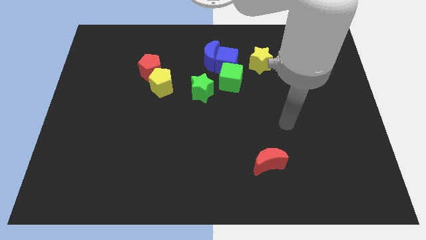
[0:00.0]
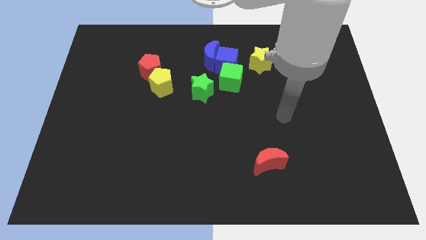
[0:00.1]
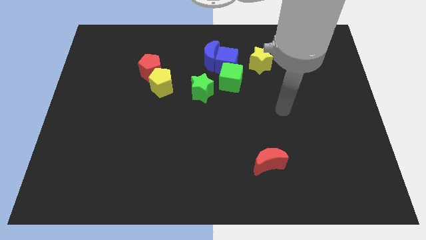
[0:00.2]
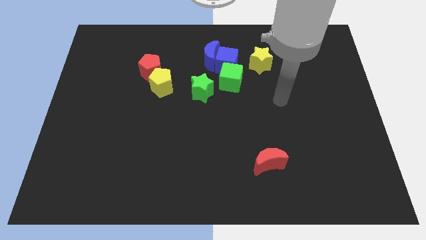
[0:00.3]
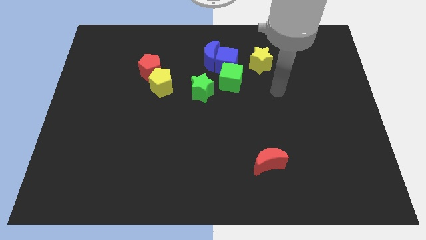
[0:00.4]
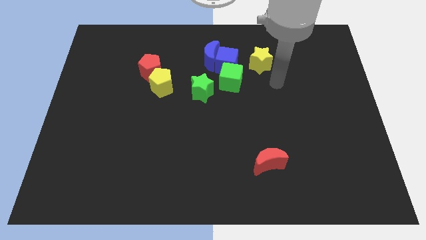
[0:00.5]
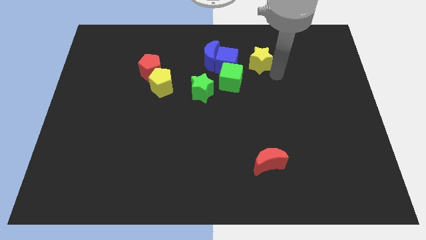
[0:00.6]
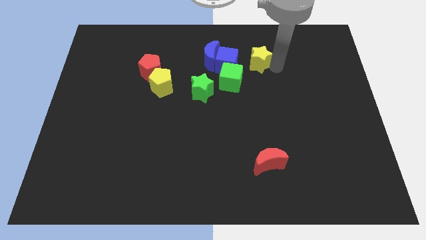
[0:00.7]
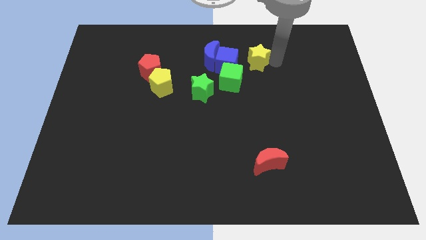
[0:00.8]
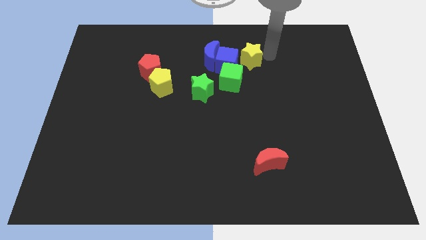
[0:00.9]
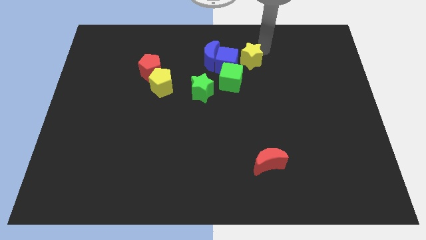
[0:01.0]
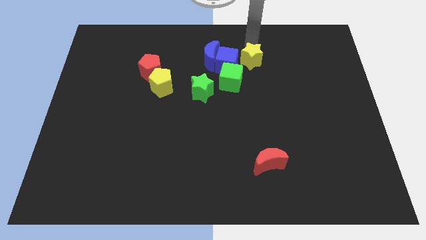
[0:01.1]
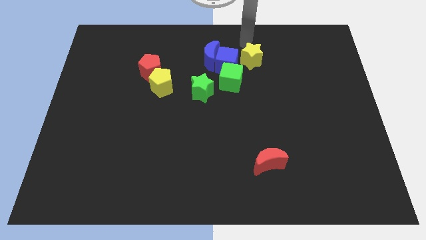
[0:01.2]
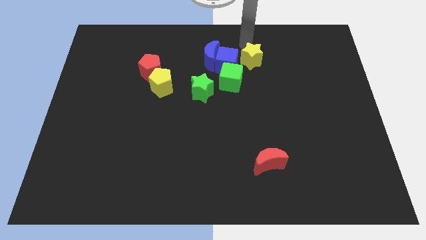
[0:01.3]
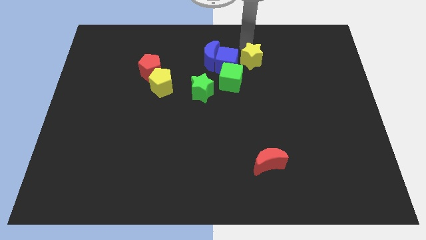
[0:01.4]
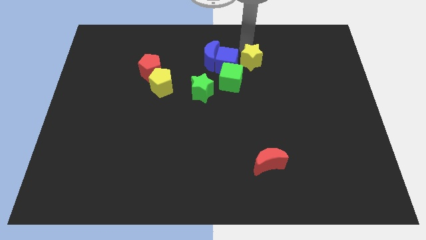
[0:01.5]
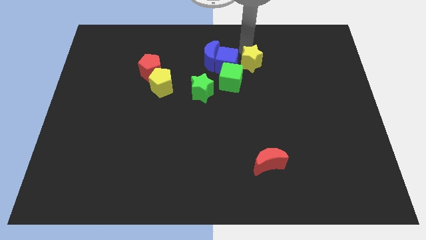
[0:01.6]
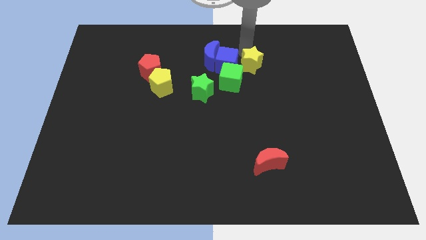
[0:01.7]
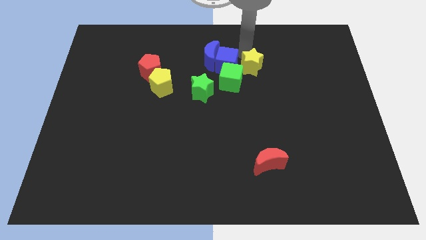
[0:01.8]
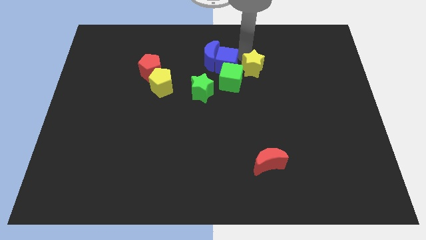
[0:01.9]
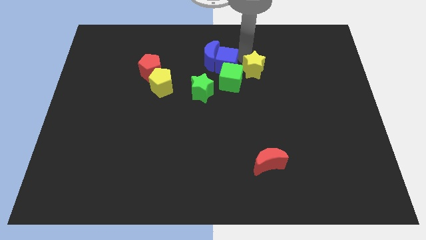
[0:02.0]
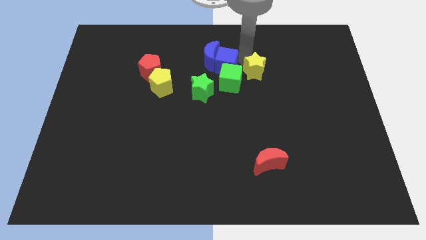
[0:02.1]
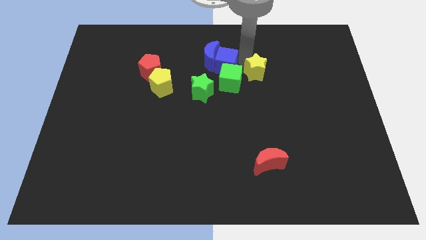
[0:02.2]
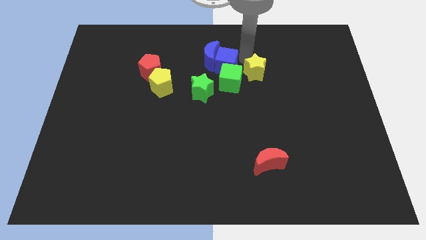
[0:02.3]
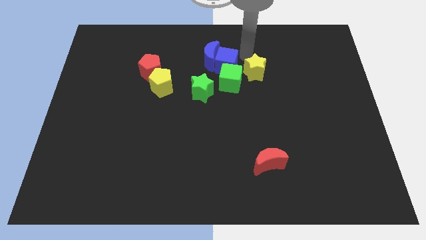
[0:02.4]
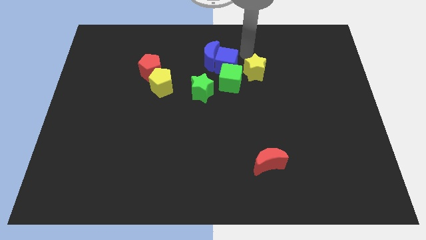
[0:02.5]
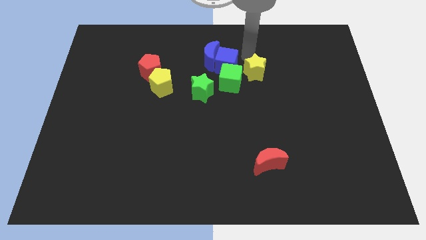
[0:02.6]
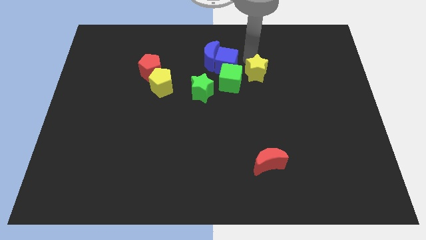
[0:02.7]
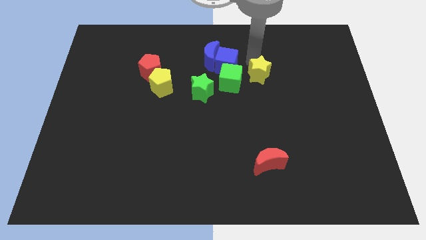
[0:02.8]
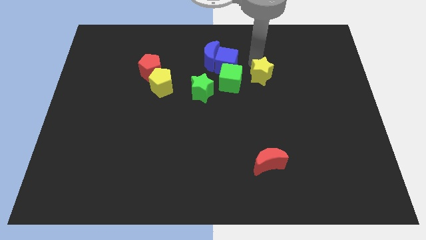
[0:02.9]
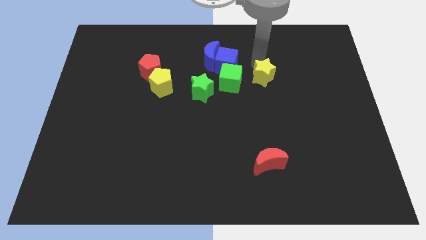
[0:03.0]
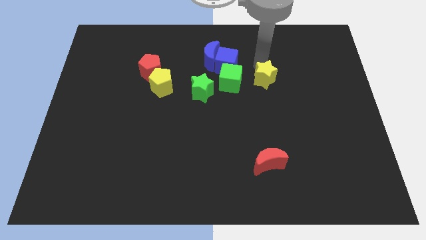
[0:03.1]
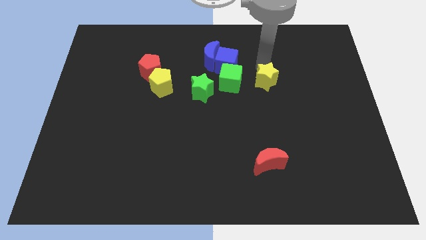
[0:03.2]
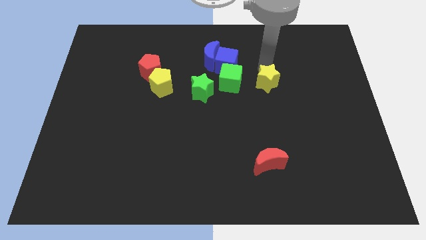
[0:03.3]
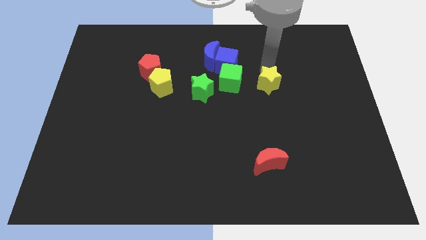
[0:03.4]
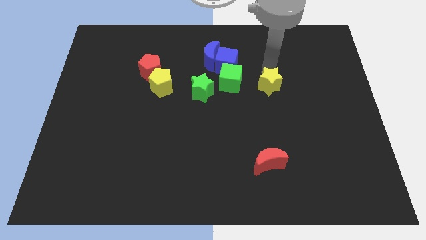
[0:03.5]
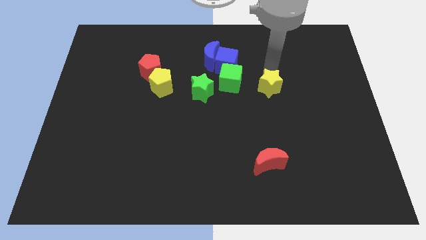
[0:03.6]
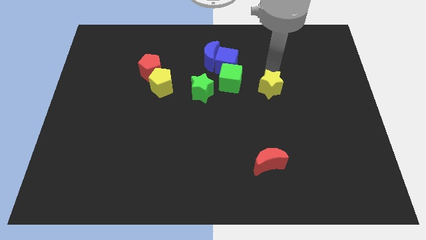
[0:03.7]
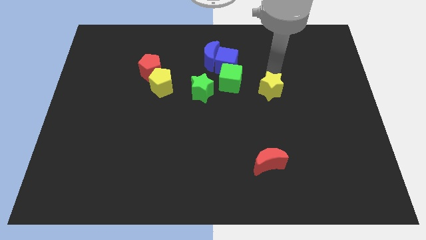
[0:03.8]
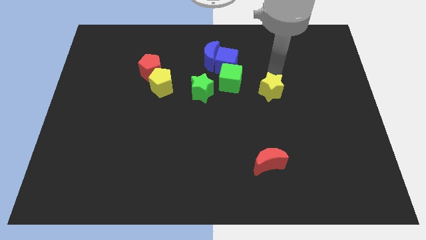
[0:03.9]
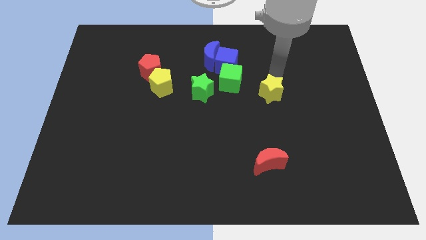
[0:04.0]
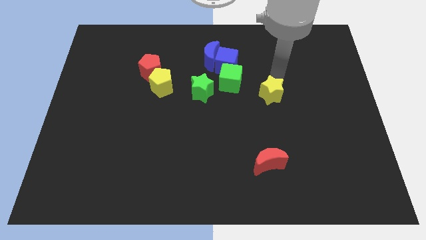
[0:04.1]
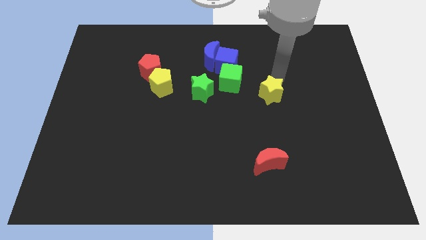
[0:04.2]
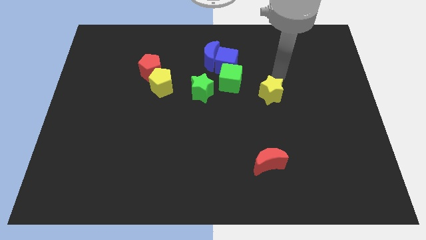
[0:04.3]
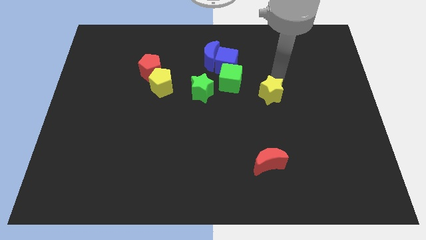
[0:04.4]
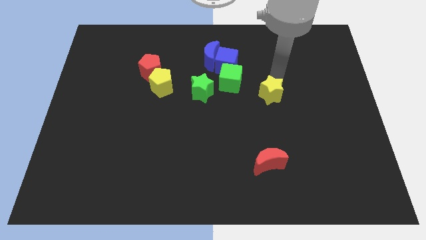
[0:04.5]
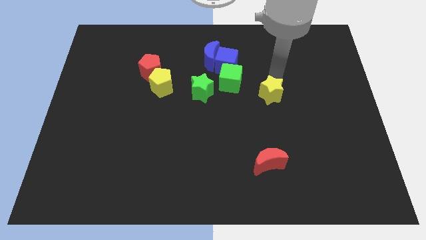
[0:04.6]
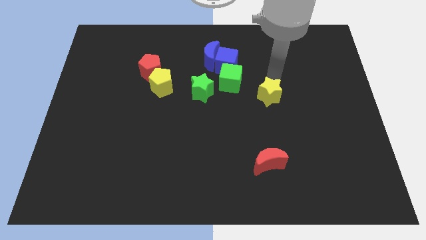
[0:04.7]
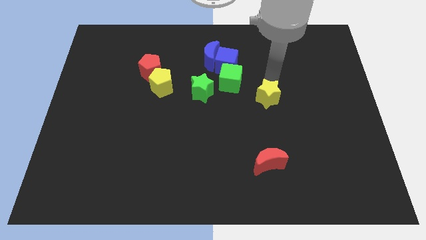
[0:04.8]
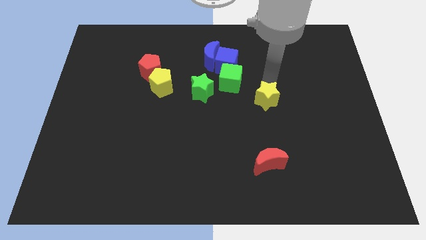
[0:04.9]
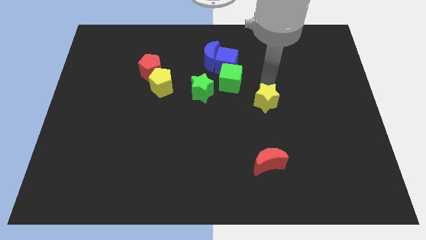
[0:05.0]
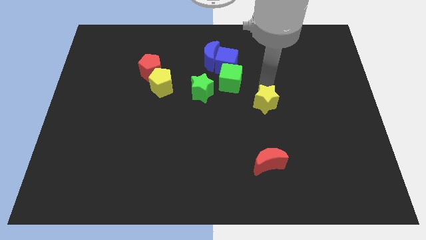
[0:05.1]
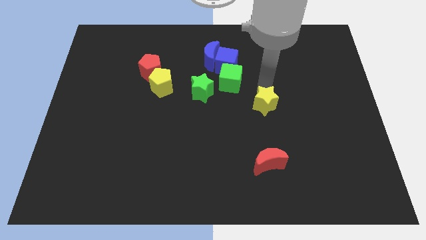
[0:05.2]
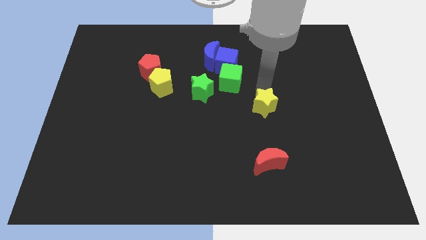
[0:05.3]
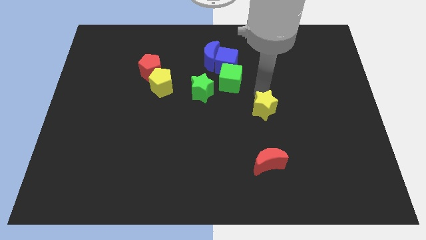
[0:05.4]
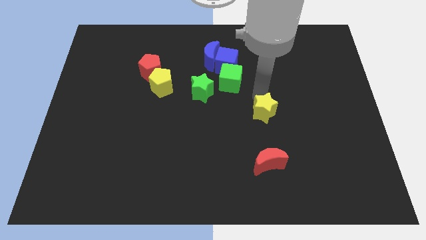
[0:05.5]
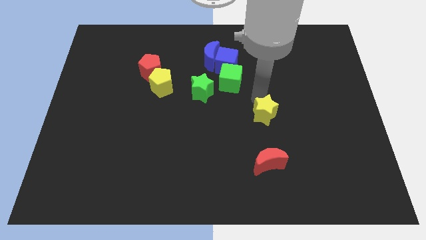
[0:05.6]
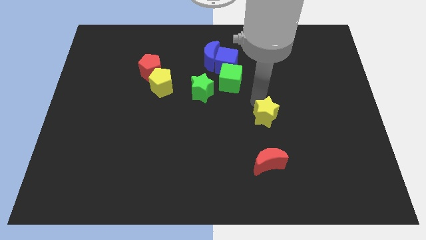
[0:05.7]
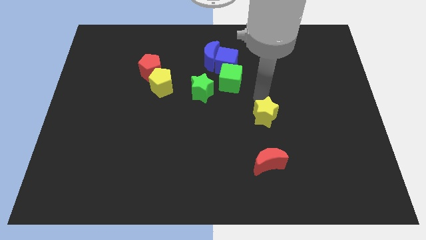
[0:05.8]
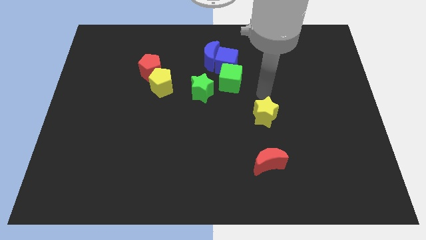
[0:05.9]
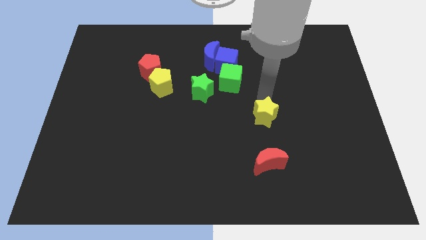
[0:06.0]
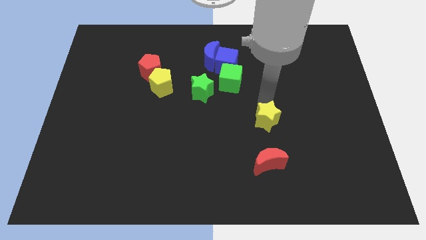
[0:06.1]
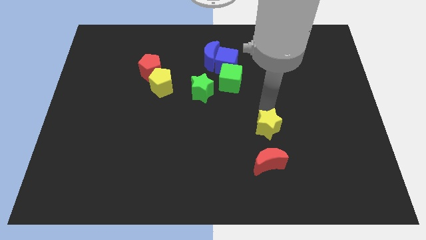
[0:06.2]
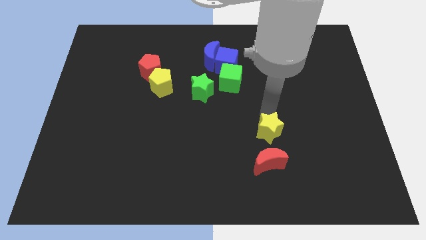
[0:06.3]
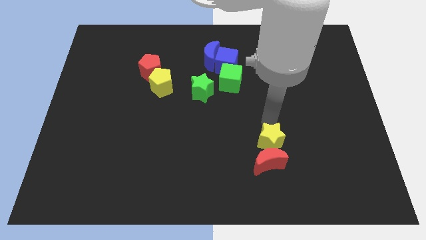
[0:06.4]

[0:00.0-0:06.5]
move the yellow star close to the red moon

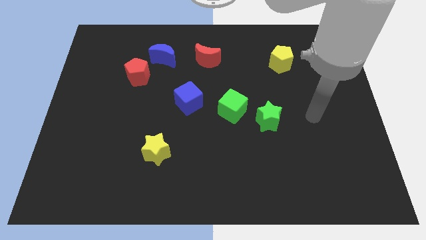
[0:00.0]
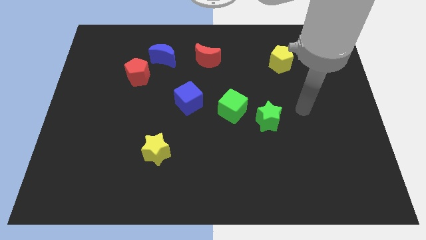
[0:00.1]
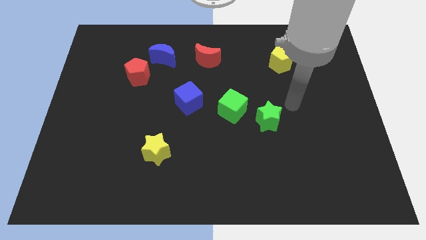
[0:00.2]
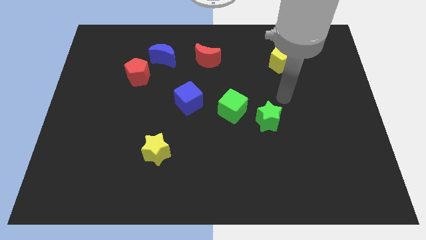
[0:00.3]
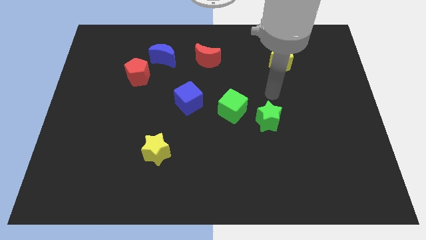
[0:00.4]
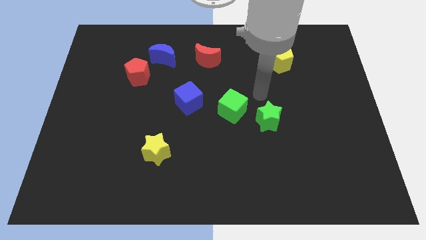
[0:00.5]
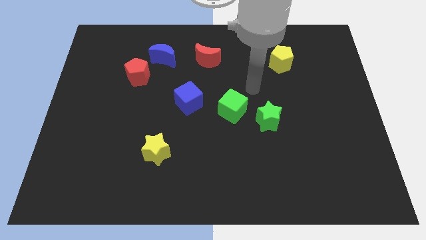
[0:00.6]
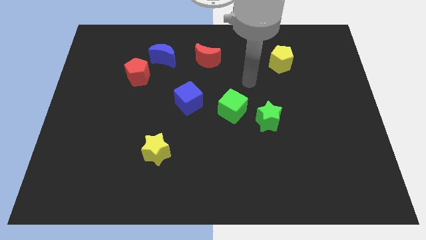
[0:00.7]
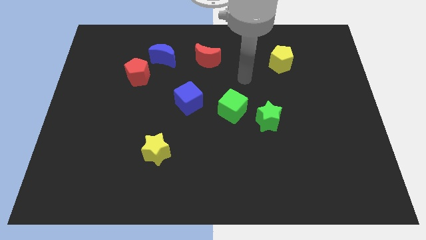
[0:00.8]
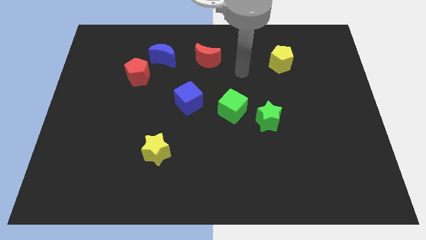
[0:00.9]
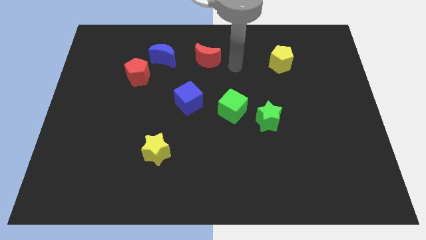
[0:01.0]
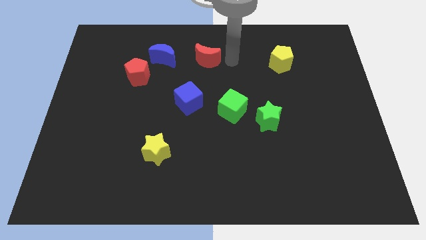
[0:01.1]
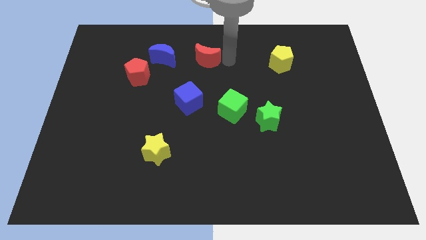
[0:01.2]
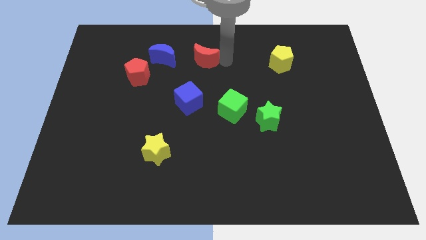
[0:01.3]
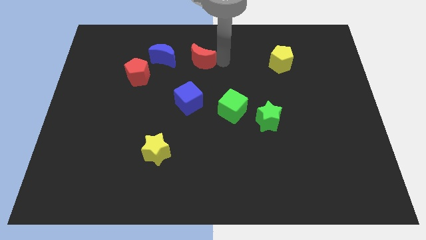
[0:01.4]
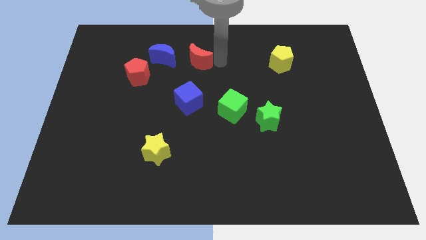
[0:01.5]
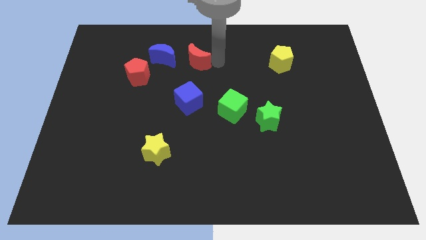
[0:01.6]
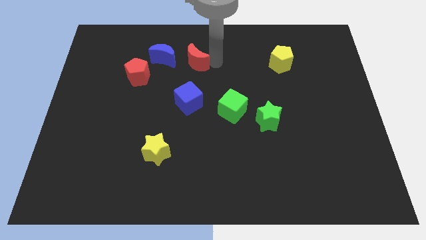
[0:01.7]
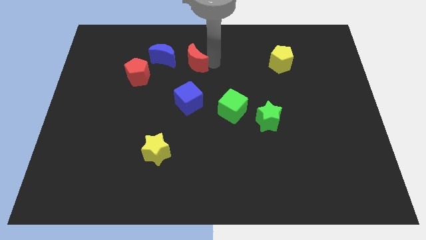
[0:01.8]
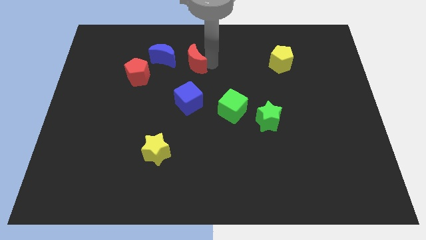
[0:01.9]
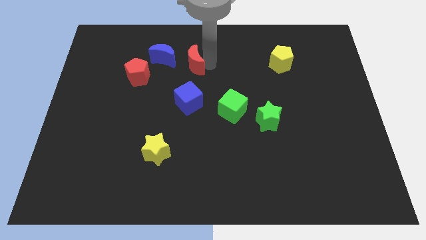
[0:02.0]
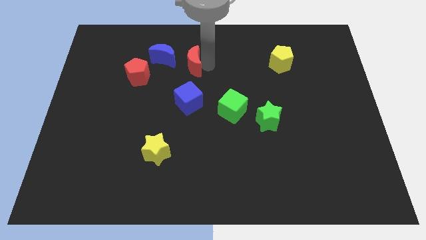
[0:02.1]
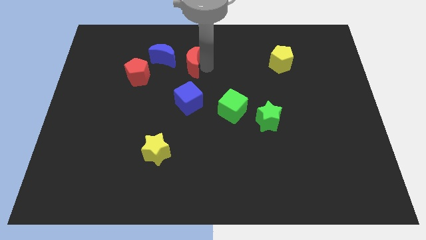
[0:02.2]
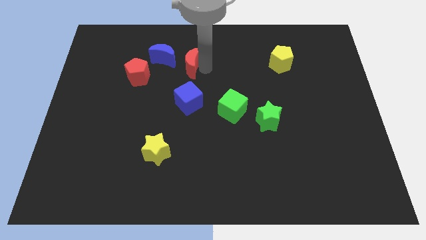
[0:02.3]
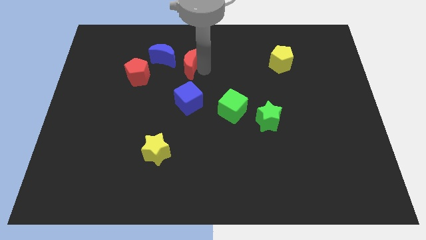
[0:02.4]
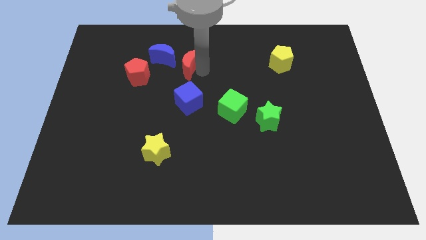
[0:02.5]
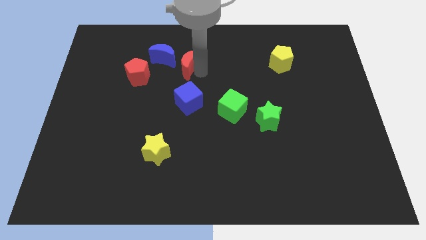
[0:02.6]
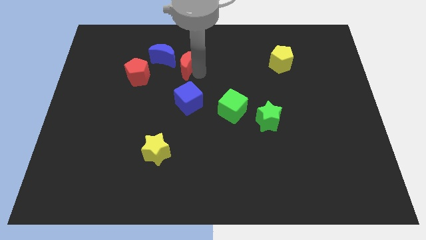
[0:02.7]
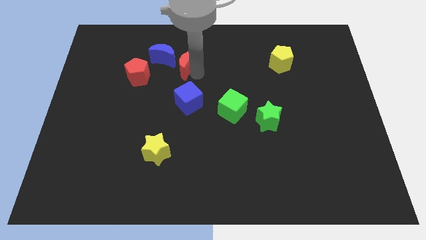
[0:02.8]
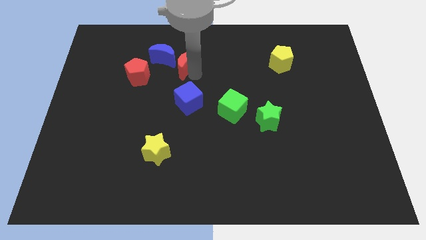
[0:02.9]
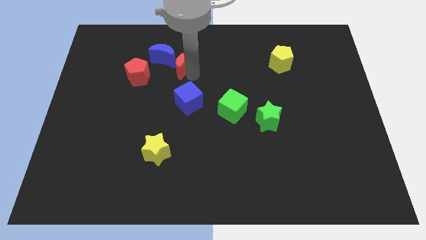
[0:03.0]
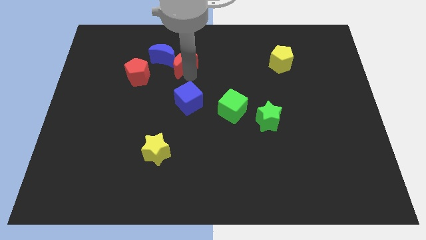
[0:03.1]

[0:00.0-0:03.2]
slide the red moon close to the blue moon
